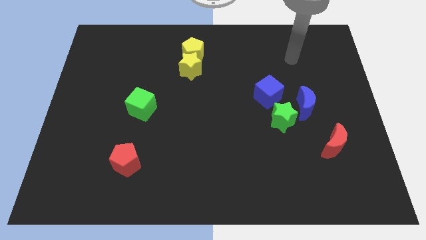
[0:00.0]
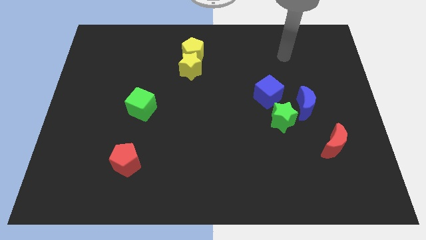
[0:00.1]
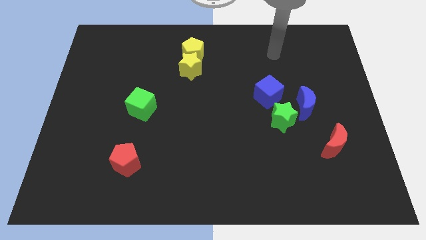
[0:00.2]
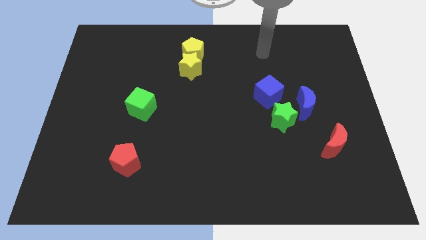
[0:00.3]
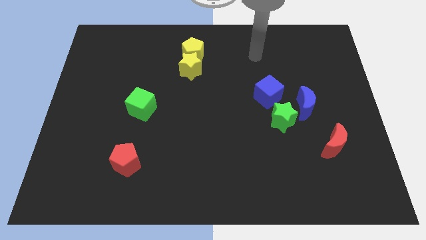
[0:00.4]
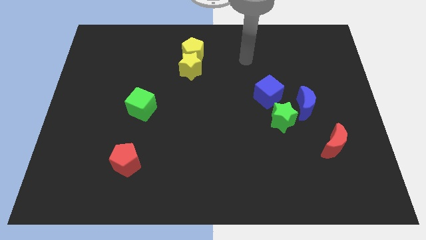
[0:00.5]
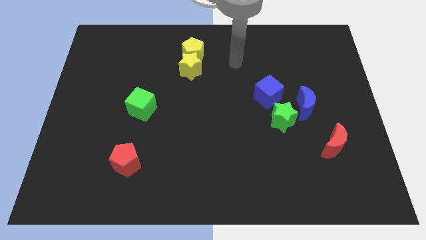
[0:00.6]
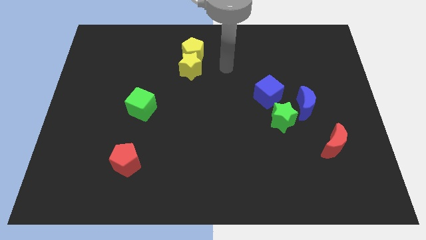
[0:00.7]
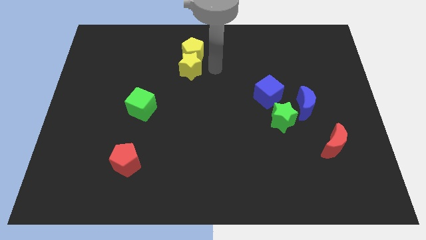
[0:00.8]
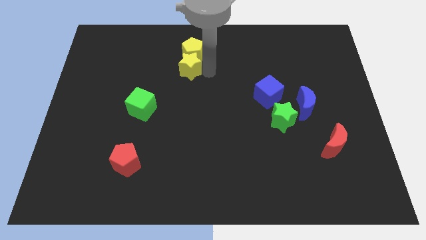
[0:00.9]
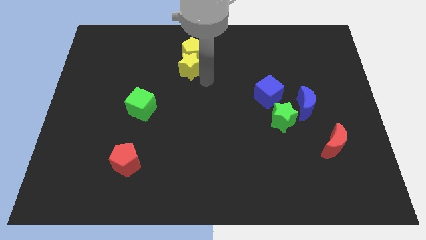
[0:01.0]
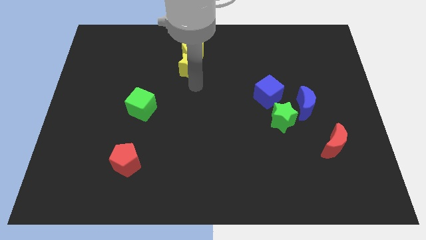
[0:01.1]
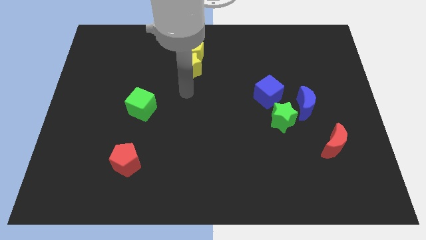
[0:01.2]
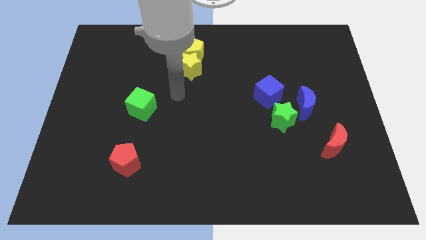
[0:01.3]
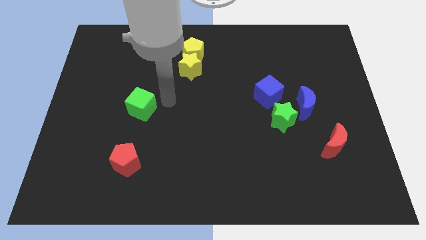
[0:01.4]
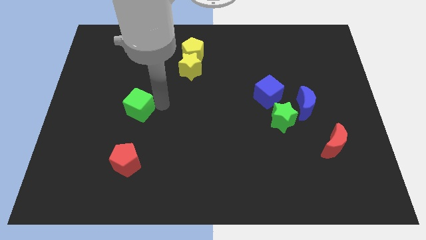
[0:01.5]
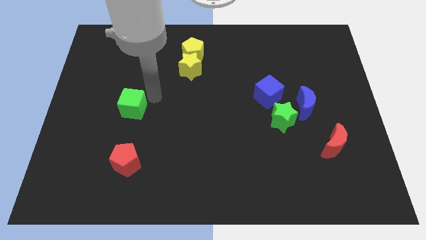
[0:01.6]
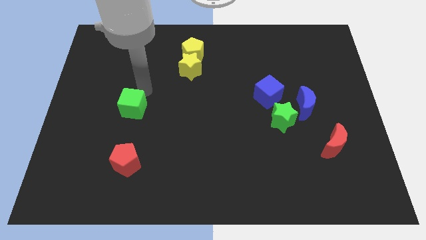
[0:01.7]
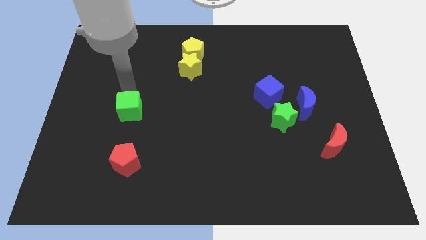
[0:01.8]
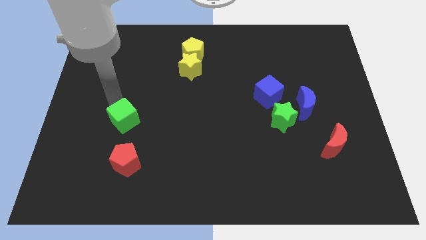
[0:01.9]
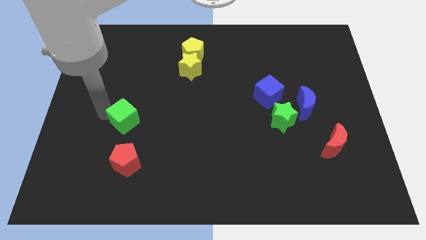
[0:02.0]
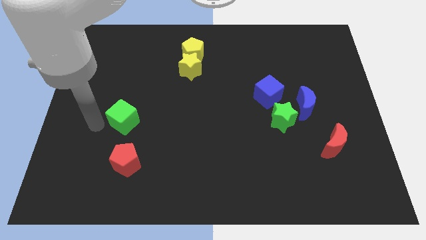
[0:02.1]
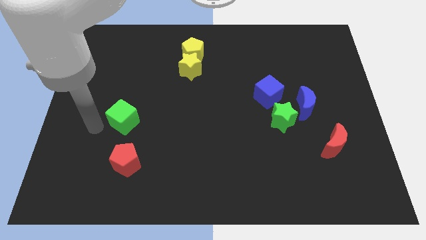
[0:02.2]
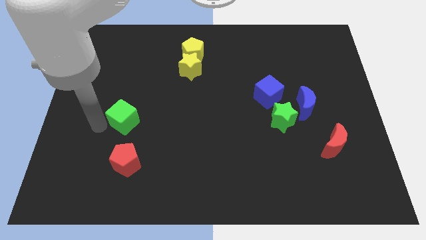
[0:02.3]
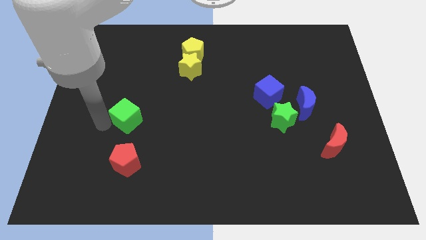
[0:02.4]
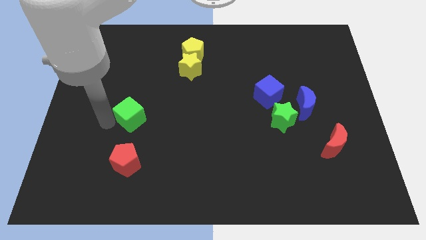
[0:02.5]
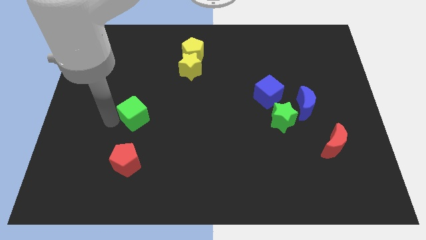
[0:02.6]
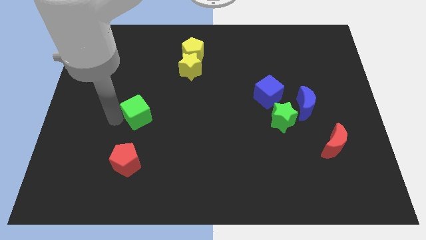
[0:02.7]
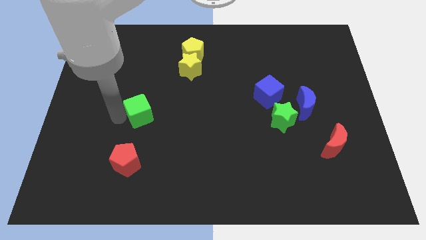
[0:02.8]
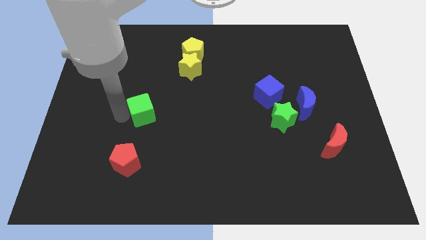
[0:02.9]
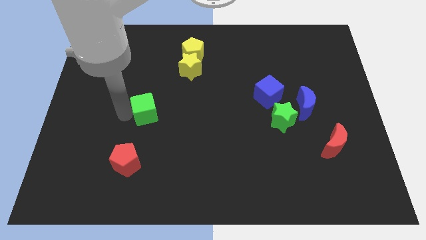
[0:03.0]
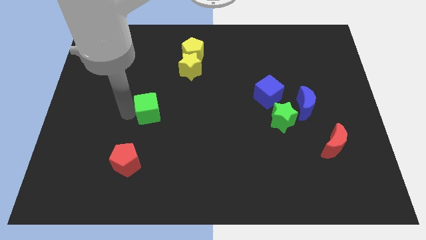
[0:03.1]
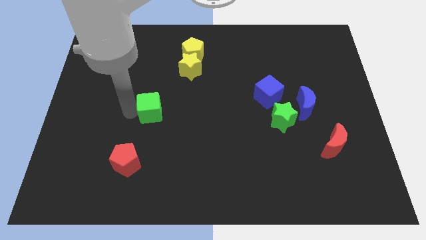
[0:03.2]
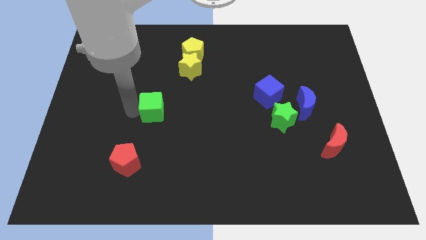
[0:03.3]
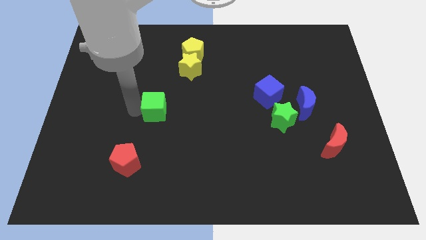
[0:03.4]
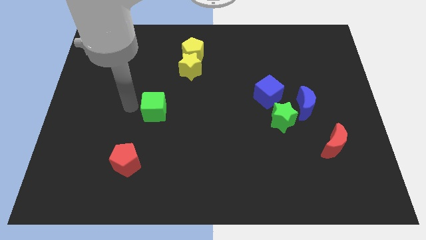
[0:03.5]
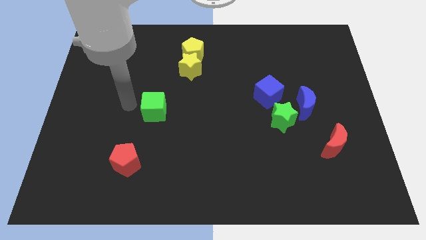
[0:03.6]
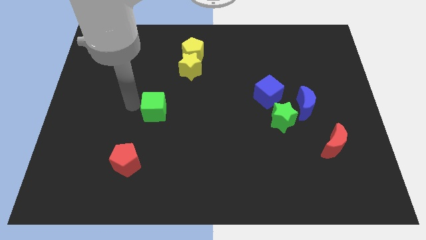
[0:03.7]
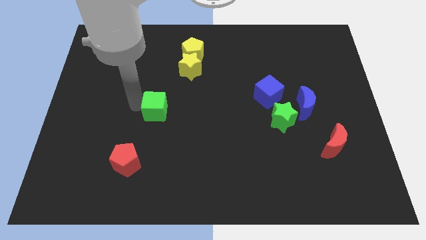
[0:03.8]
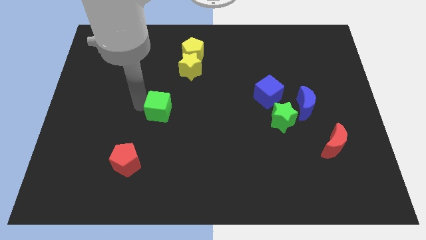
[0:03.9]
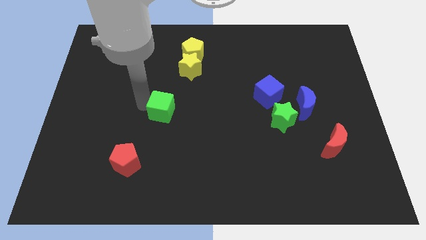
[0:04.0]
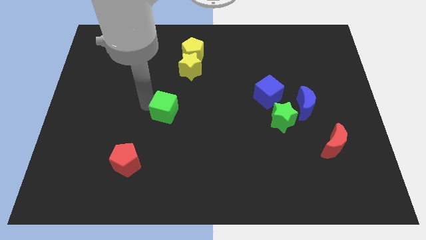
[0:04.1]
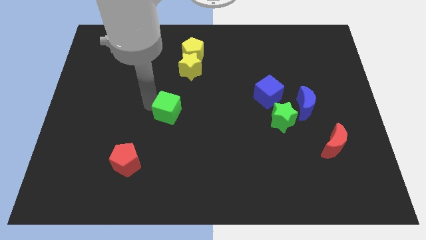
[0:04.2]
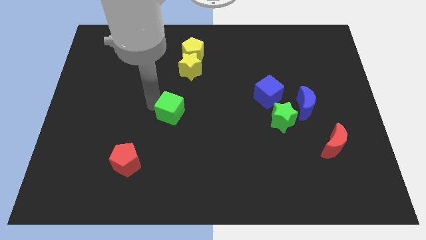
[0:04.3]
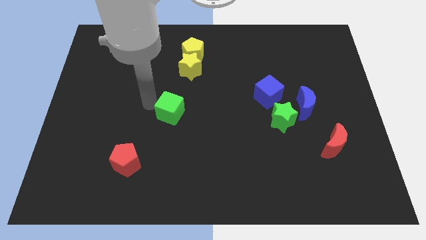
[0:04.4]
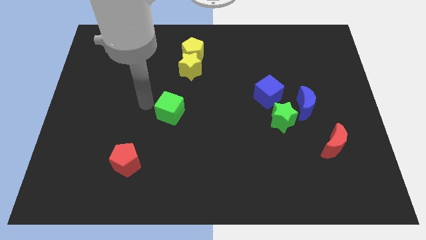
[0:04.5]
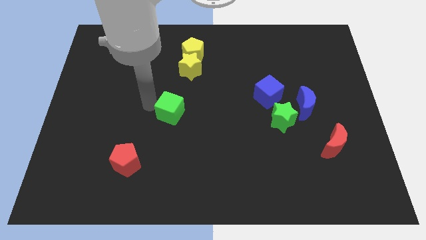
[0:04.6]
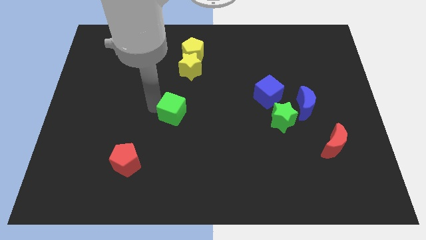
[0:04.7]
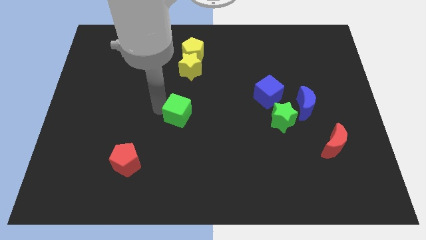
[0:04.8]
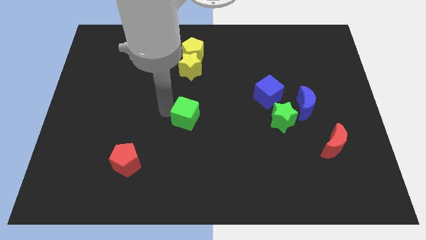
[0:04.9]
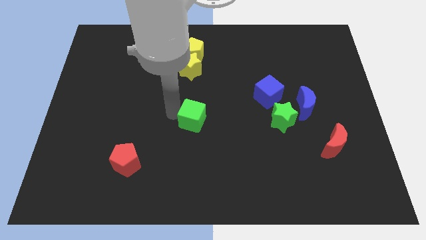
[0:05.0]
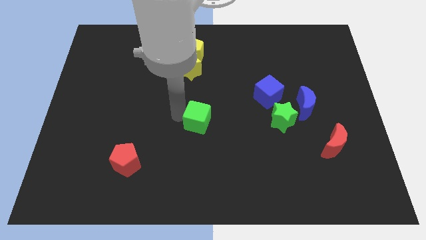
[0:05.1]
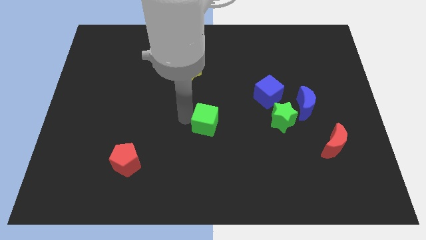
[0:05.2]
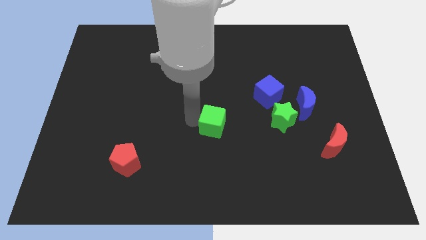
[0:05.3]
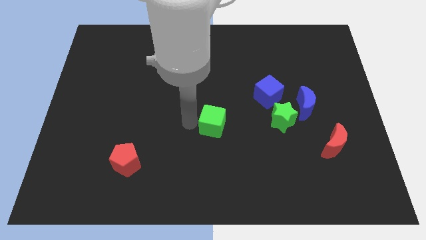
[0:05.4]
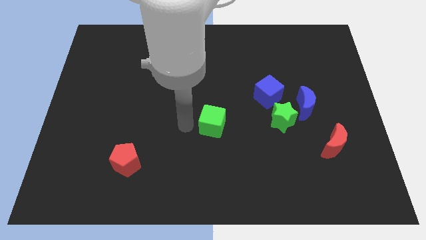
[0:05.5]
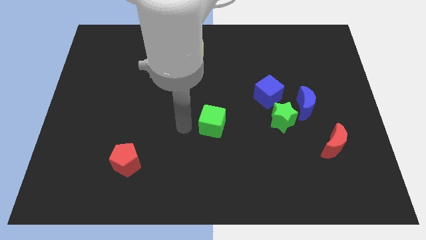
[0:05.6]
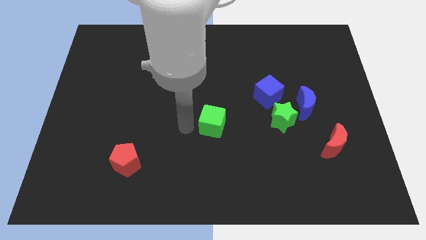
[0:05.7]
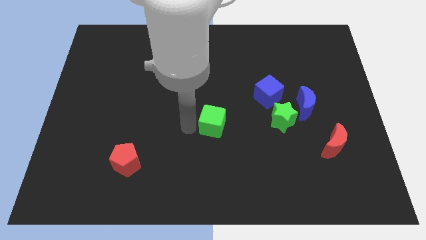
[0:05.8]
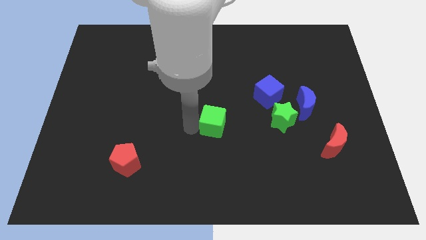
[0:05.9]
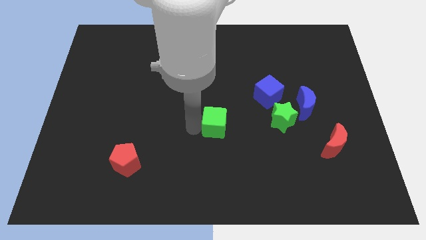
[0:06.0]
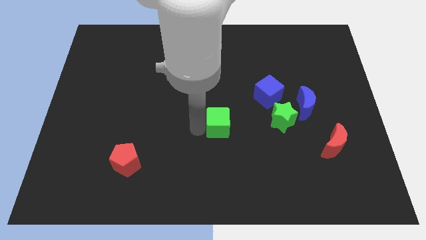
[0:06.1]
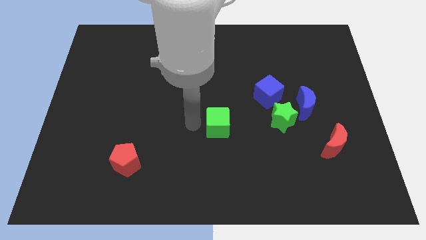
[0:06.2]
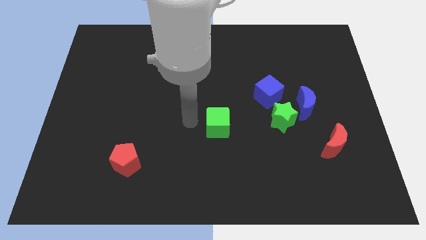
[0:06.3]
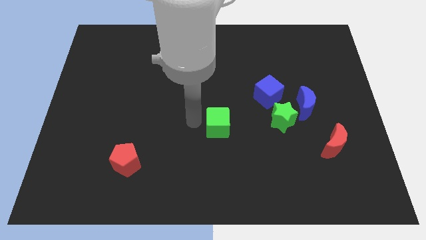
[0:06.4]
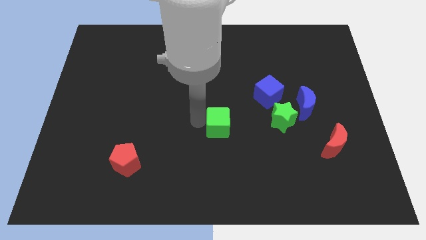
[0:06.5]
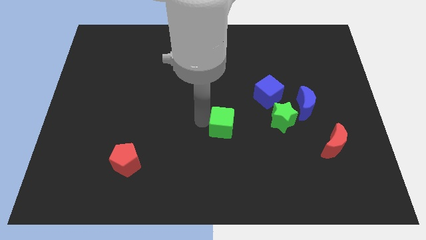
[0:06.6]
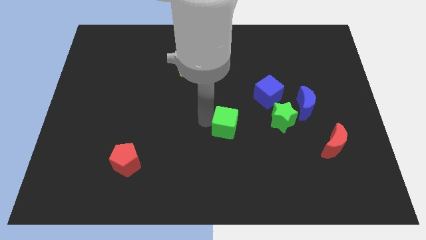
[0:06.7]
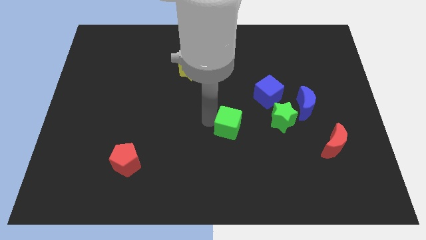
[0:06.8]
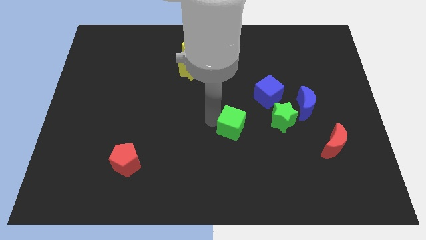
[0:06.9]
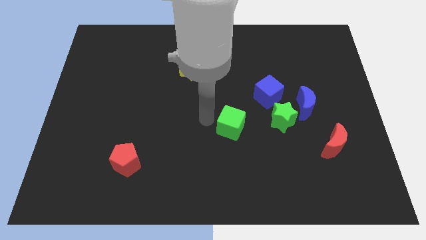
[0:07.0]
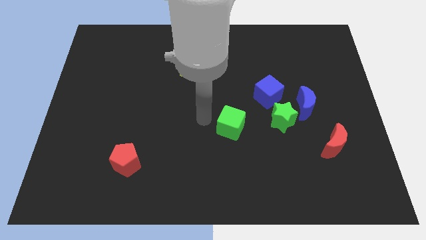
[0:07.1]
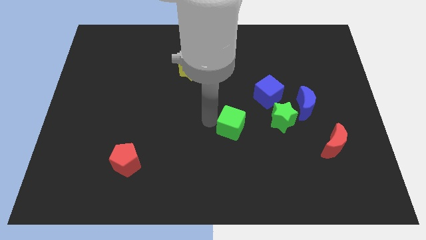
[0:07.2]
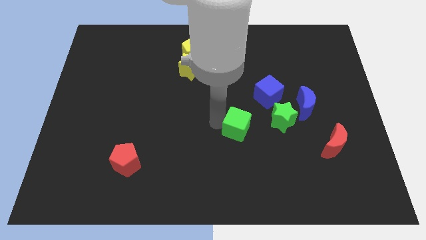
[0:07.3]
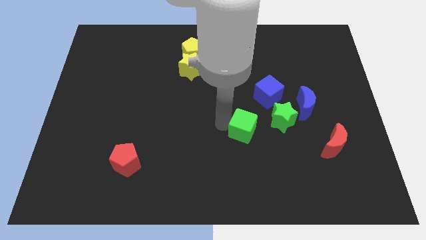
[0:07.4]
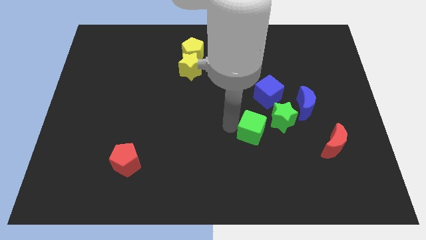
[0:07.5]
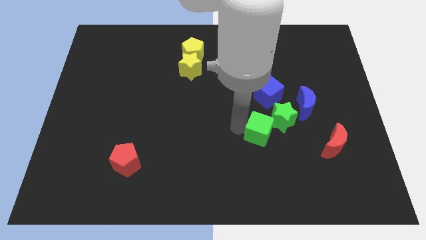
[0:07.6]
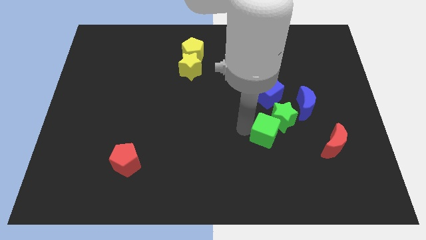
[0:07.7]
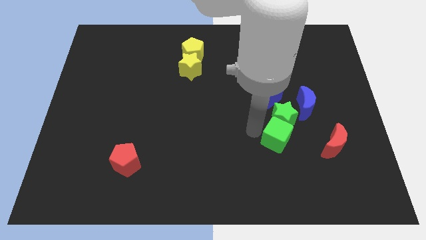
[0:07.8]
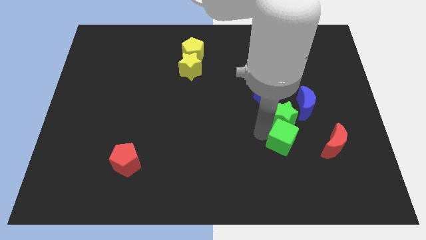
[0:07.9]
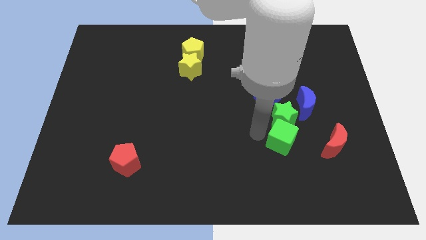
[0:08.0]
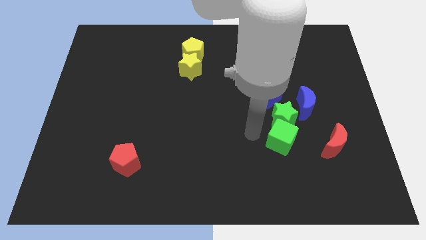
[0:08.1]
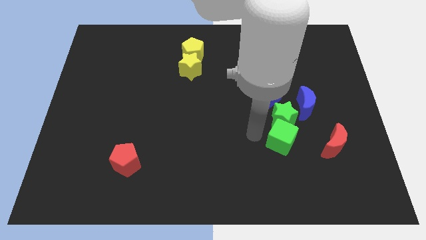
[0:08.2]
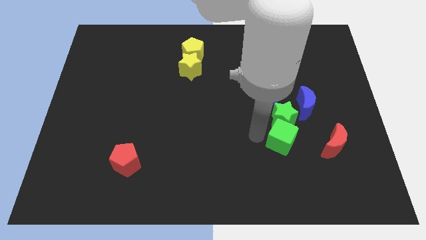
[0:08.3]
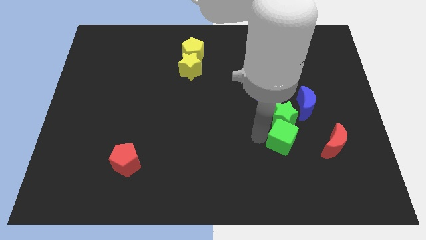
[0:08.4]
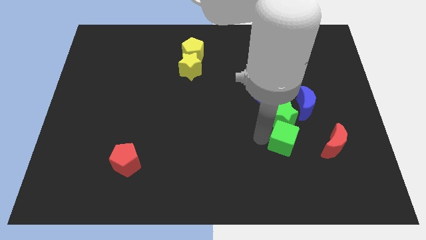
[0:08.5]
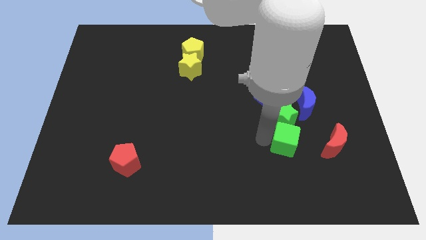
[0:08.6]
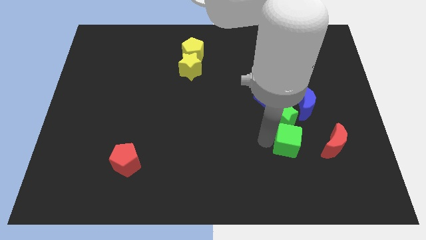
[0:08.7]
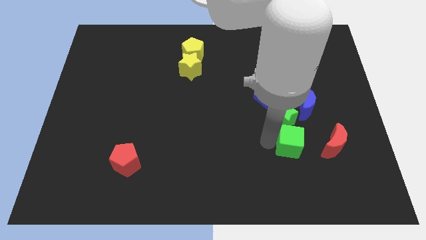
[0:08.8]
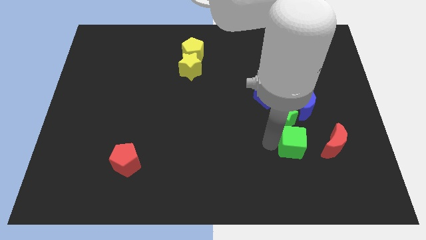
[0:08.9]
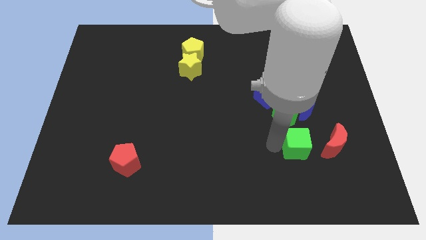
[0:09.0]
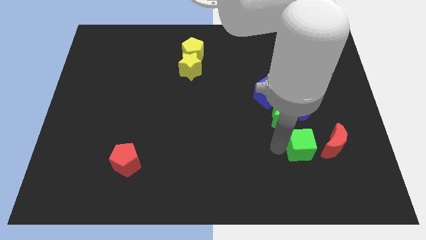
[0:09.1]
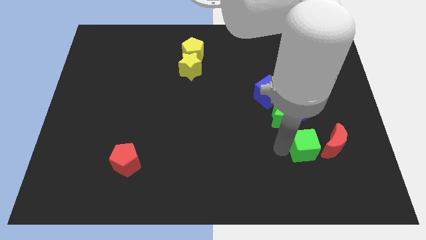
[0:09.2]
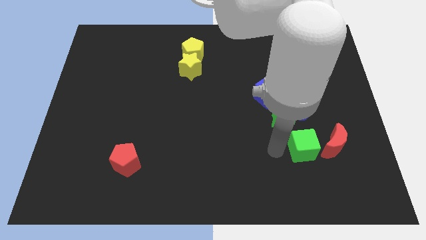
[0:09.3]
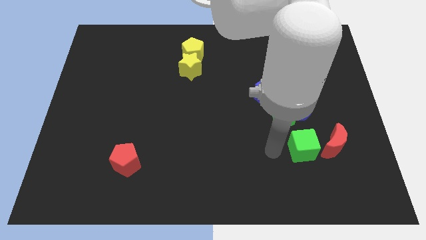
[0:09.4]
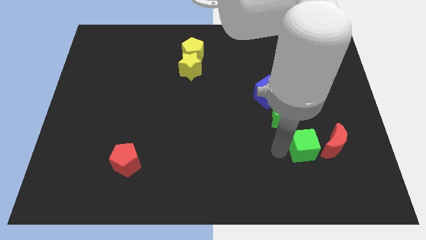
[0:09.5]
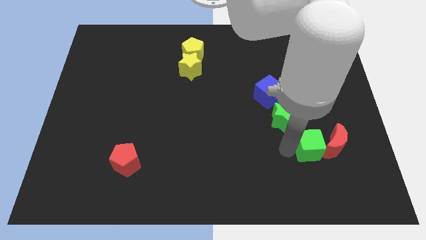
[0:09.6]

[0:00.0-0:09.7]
push the green cube close to the red moon
